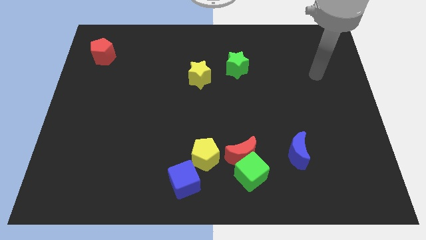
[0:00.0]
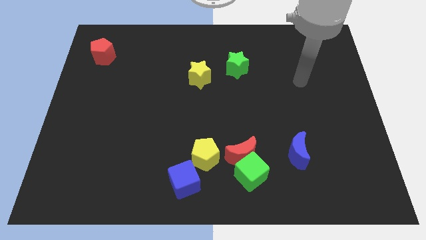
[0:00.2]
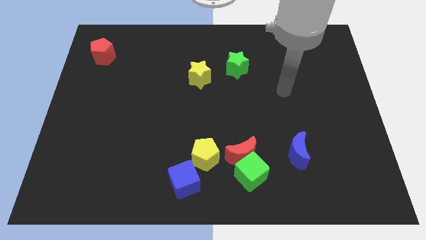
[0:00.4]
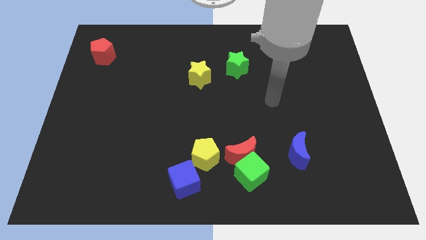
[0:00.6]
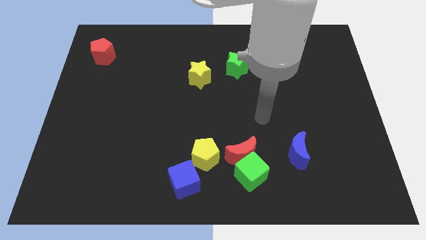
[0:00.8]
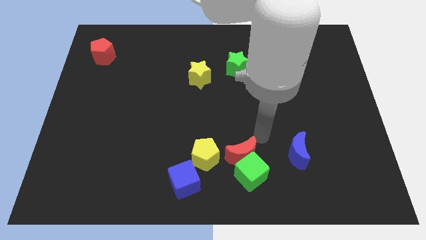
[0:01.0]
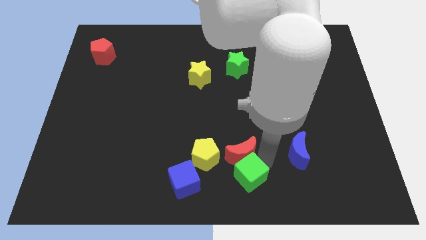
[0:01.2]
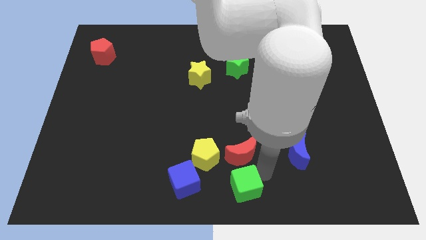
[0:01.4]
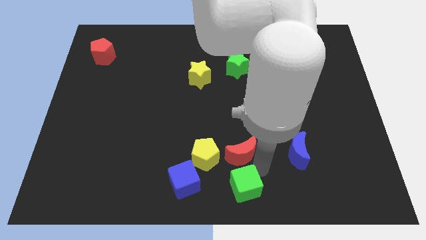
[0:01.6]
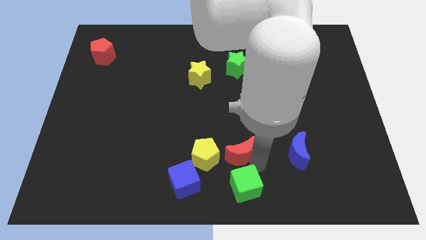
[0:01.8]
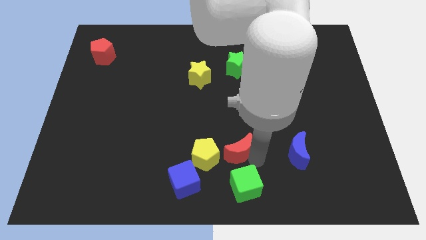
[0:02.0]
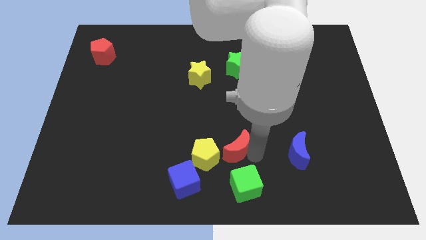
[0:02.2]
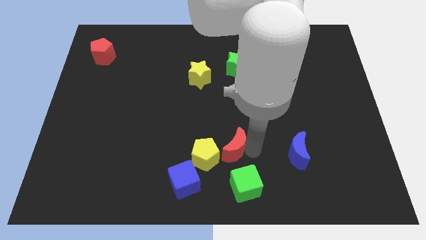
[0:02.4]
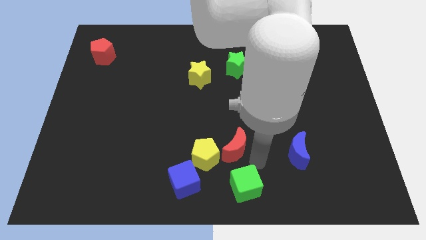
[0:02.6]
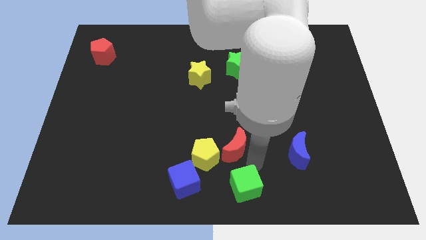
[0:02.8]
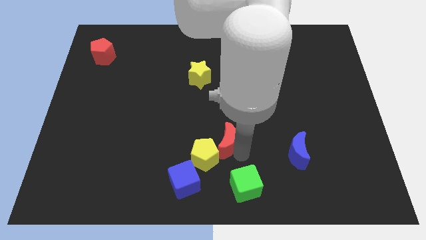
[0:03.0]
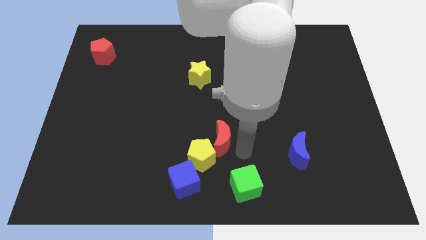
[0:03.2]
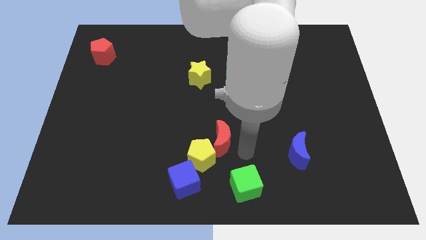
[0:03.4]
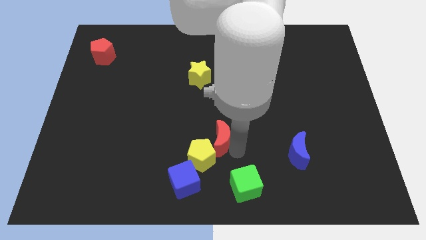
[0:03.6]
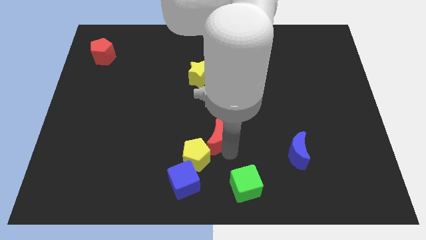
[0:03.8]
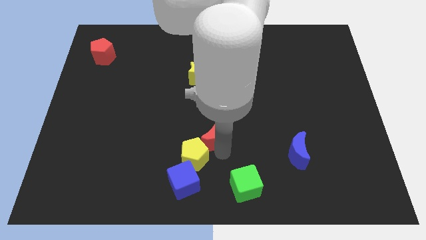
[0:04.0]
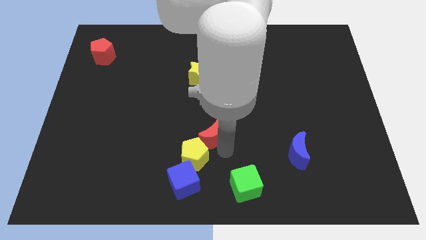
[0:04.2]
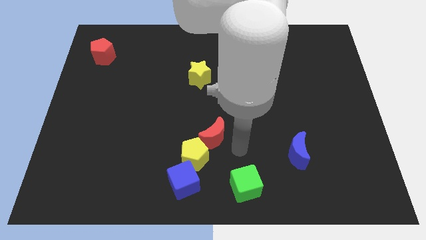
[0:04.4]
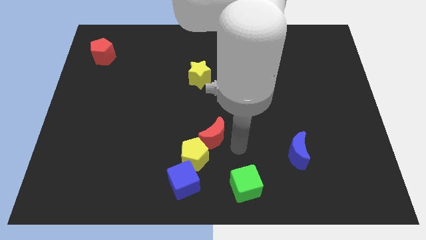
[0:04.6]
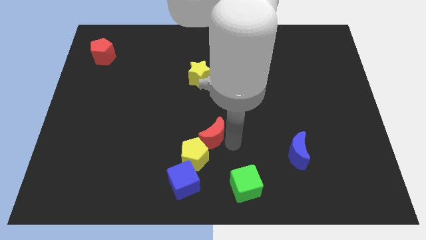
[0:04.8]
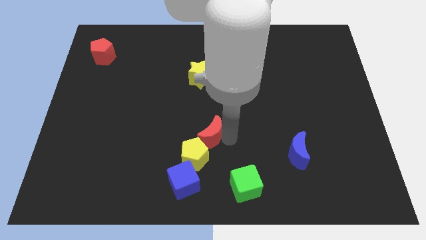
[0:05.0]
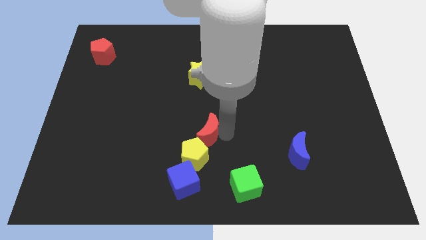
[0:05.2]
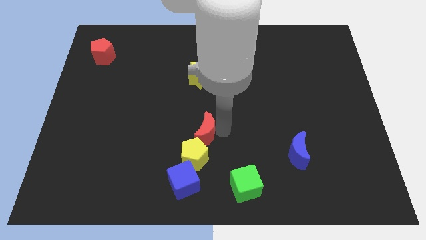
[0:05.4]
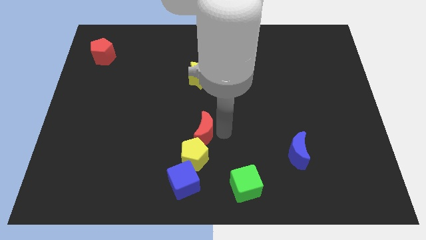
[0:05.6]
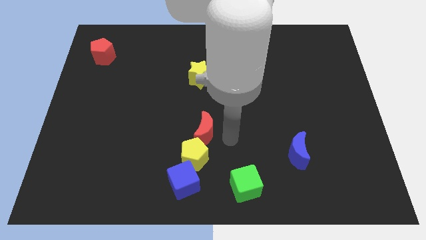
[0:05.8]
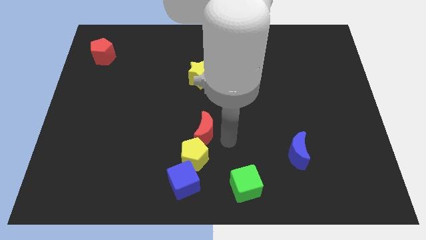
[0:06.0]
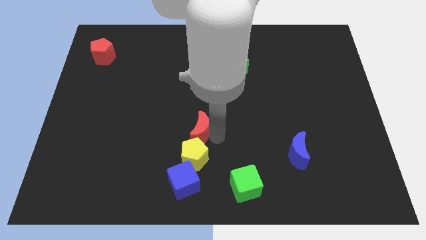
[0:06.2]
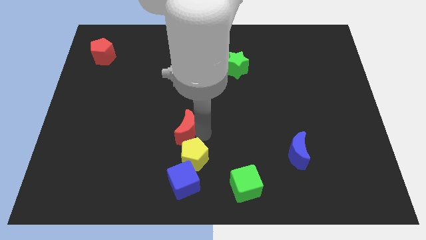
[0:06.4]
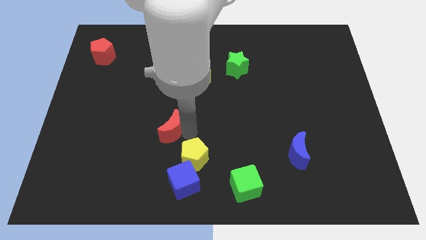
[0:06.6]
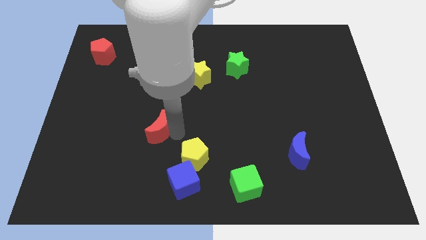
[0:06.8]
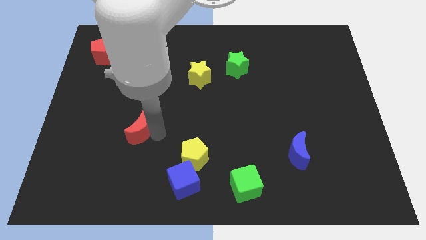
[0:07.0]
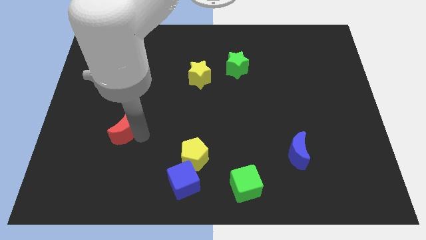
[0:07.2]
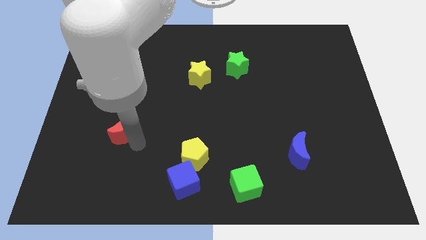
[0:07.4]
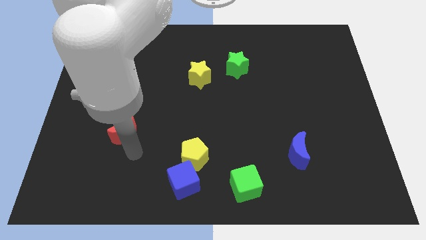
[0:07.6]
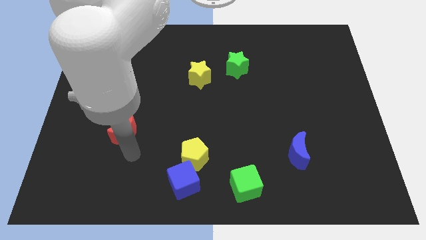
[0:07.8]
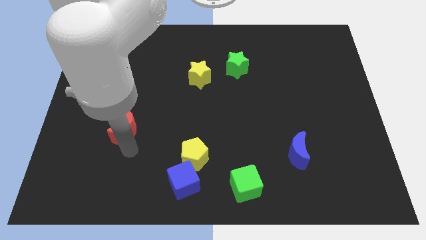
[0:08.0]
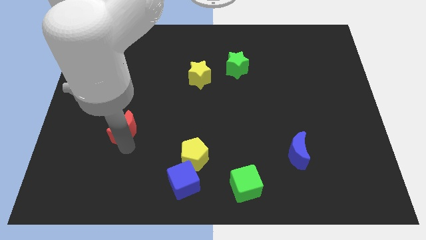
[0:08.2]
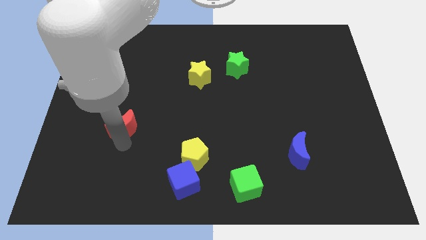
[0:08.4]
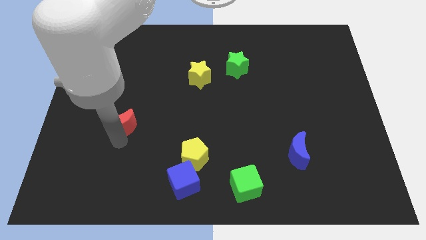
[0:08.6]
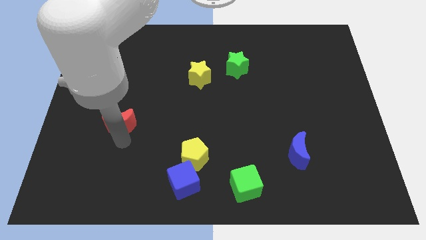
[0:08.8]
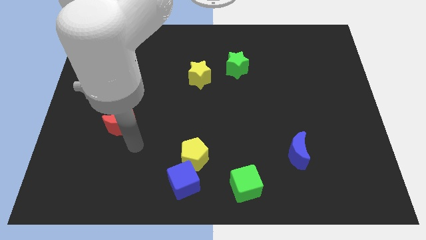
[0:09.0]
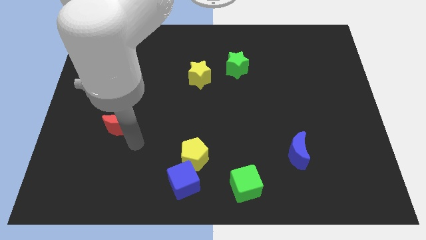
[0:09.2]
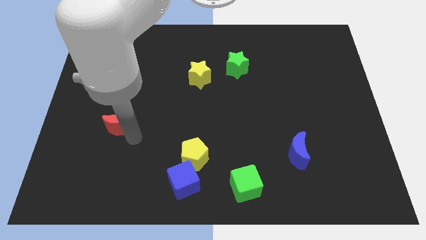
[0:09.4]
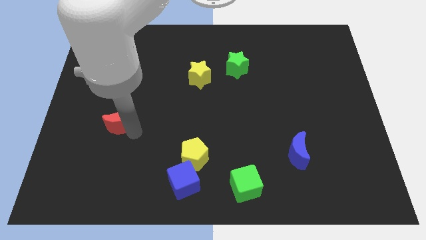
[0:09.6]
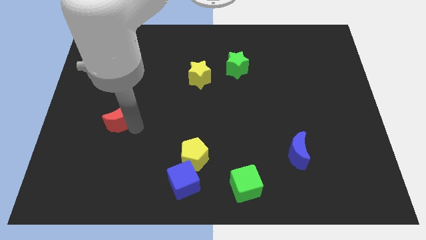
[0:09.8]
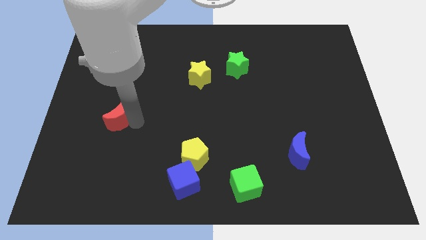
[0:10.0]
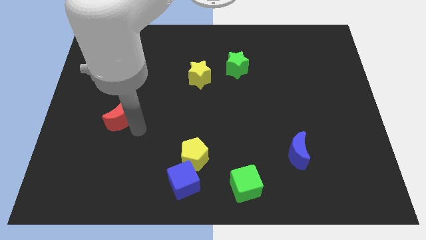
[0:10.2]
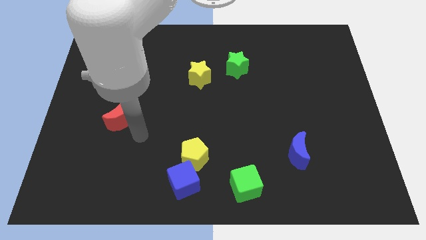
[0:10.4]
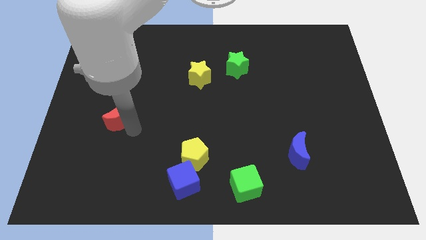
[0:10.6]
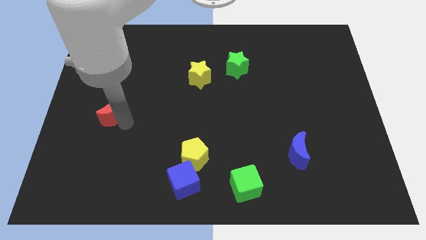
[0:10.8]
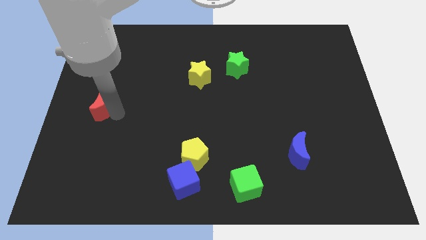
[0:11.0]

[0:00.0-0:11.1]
move the red moon to the left side of the board

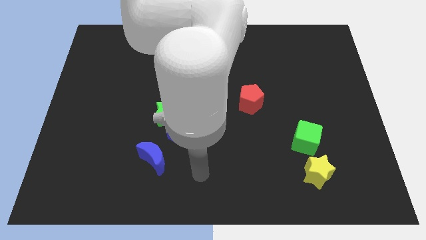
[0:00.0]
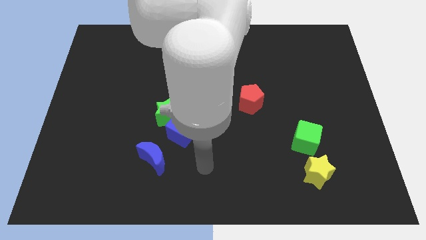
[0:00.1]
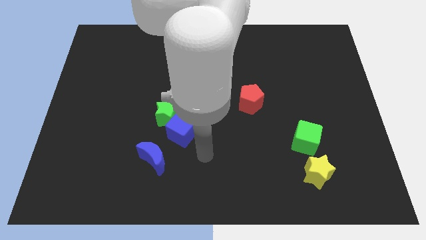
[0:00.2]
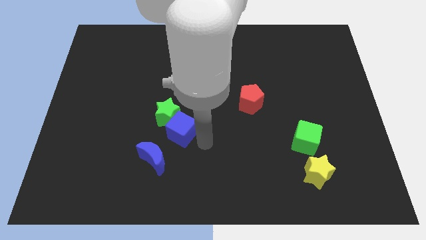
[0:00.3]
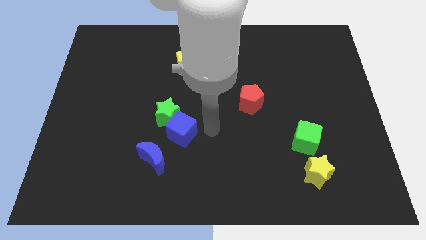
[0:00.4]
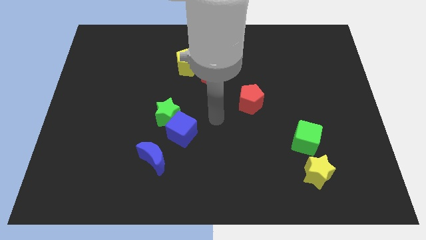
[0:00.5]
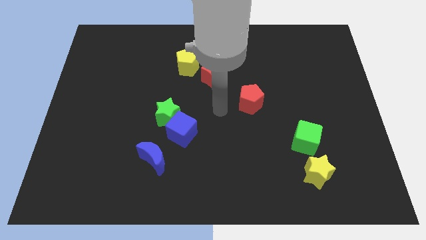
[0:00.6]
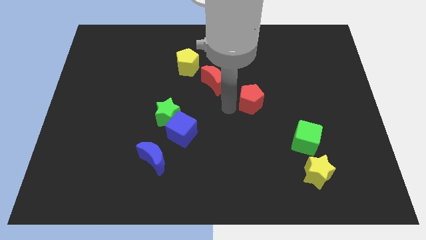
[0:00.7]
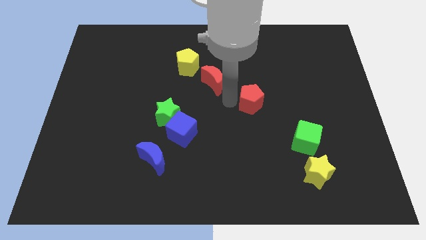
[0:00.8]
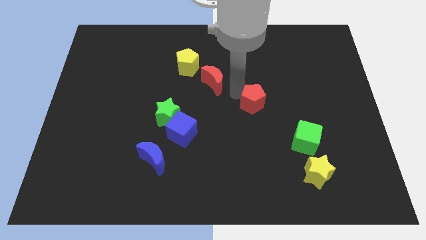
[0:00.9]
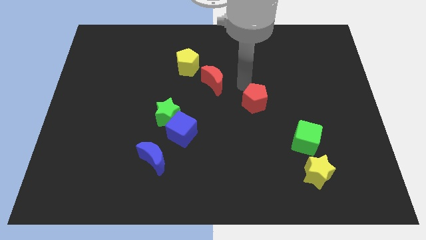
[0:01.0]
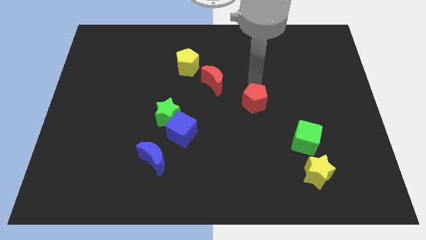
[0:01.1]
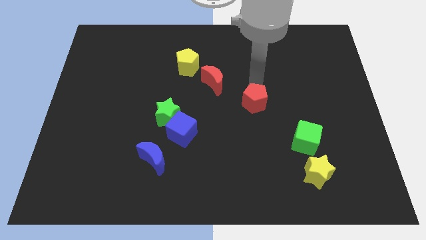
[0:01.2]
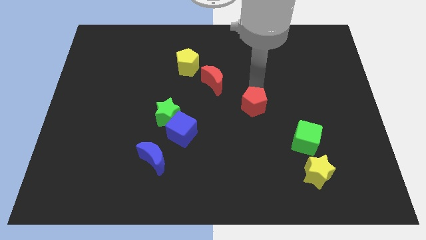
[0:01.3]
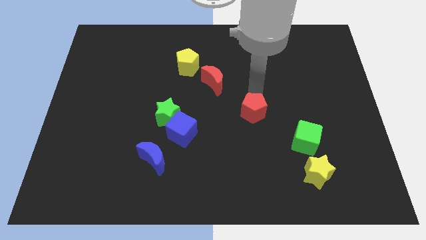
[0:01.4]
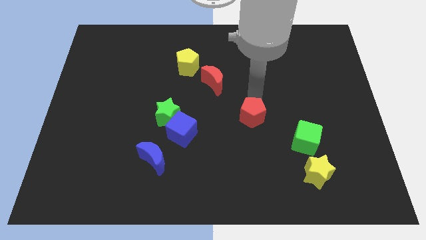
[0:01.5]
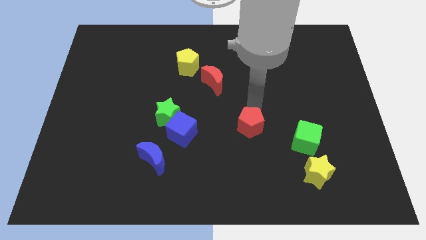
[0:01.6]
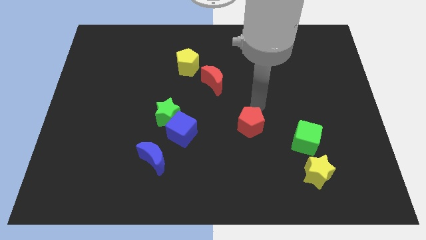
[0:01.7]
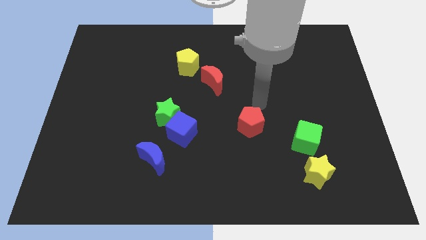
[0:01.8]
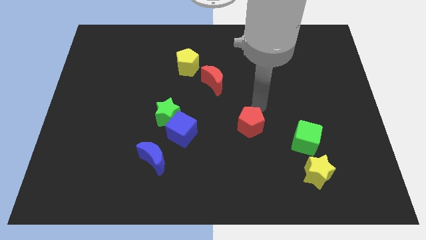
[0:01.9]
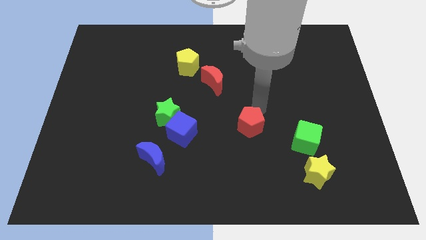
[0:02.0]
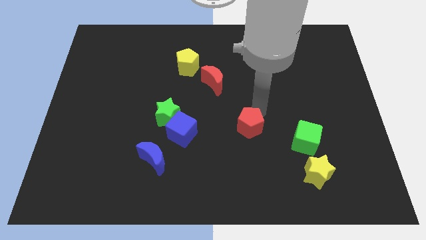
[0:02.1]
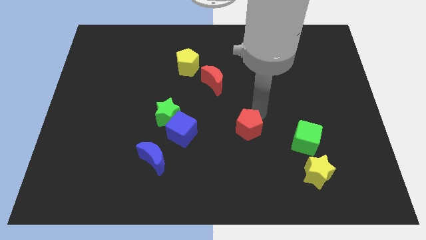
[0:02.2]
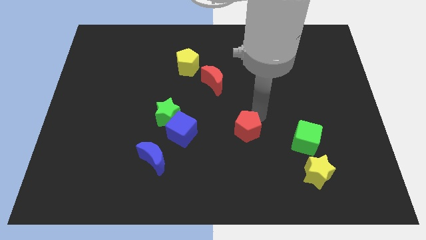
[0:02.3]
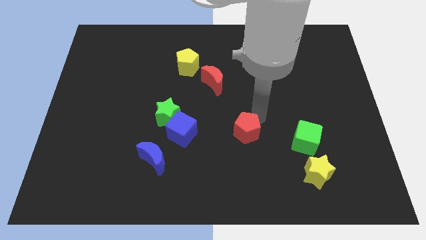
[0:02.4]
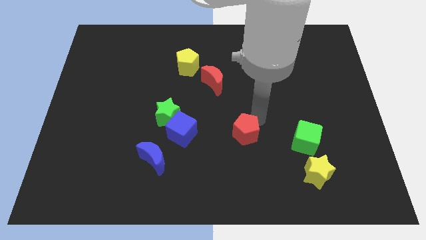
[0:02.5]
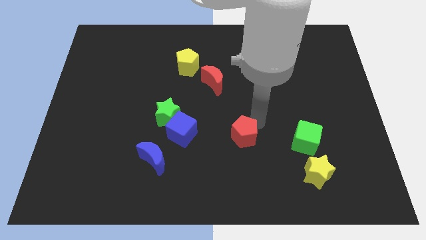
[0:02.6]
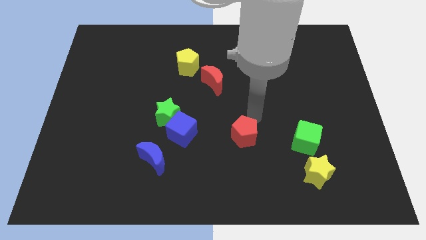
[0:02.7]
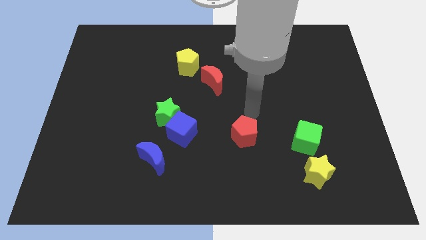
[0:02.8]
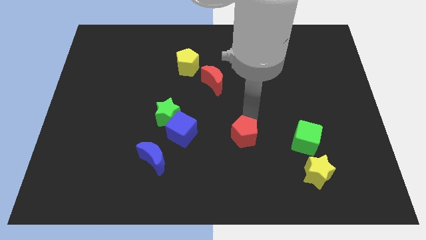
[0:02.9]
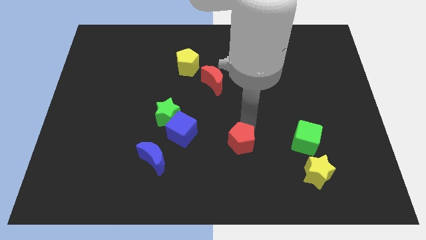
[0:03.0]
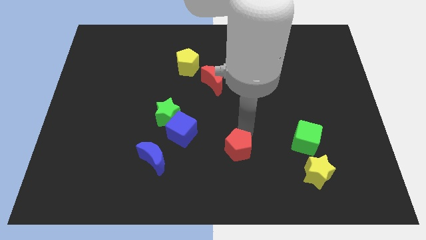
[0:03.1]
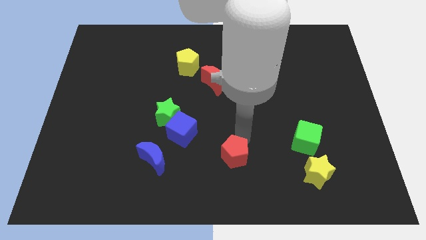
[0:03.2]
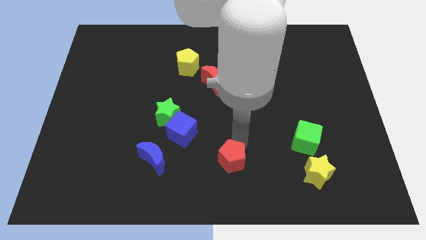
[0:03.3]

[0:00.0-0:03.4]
push the red pentagon to the bottom
